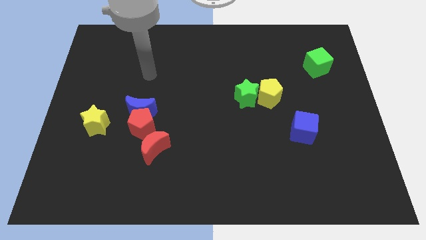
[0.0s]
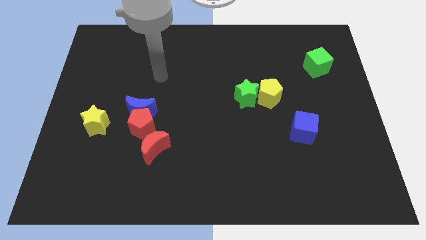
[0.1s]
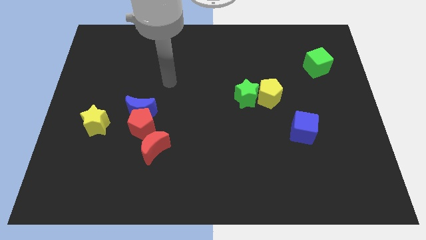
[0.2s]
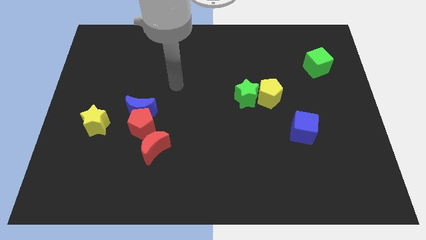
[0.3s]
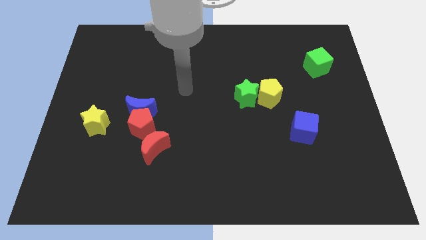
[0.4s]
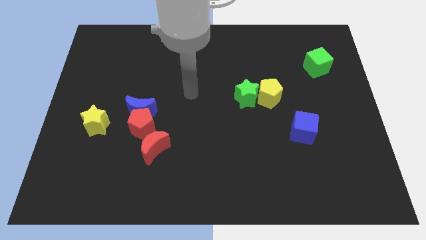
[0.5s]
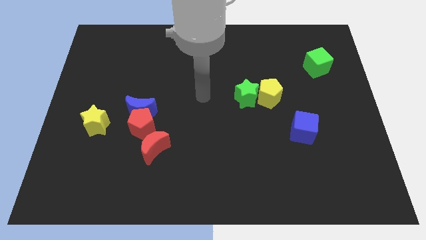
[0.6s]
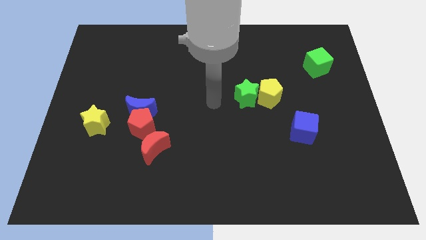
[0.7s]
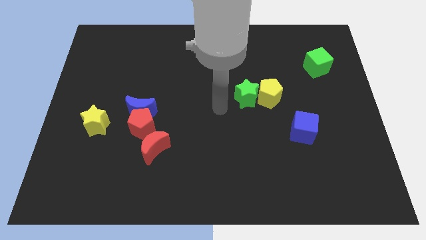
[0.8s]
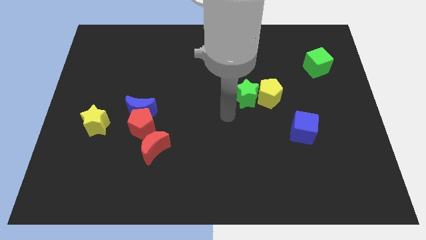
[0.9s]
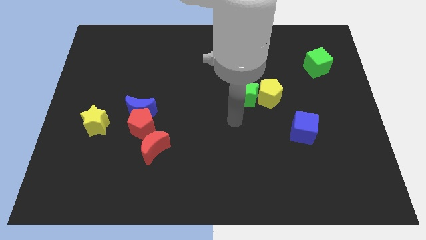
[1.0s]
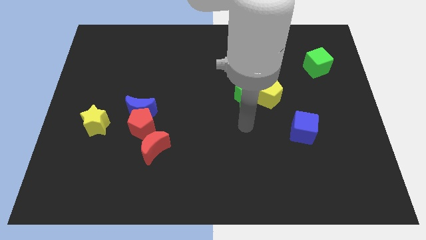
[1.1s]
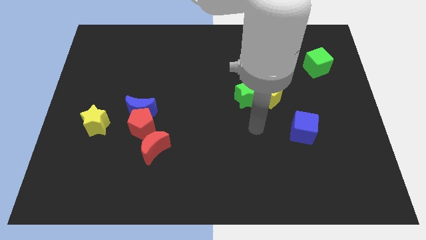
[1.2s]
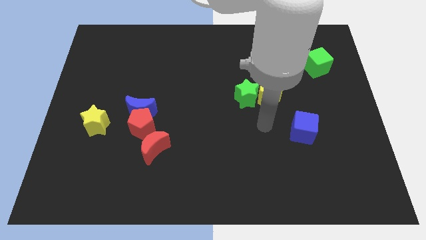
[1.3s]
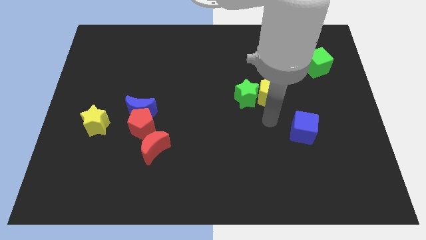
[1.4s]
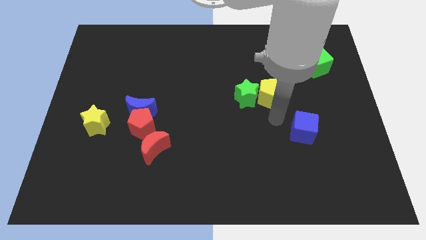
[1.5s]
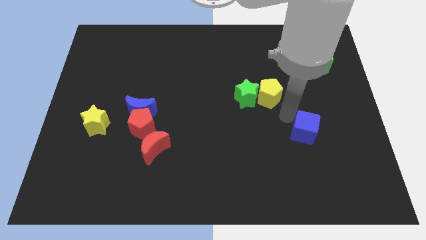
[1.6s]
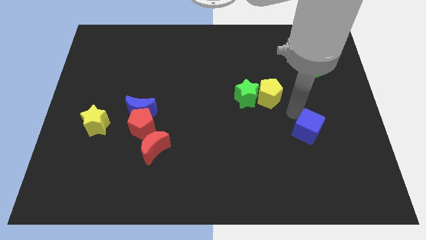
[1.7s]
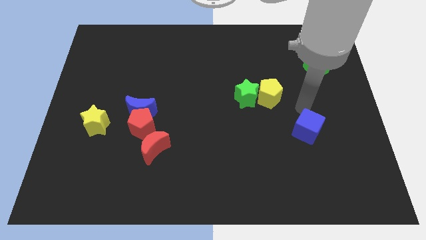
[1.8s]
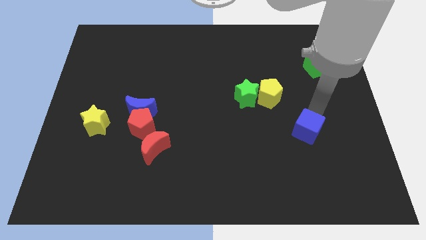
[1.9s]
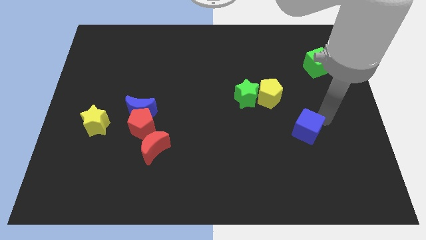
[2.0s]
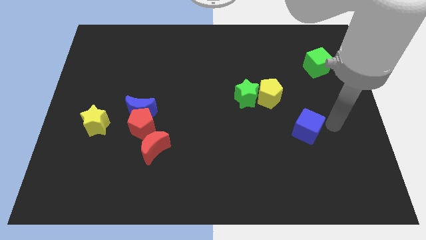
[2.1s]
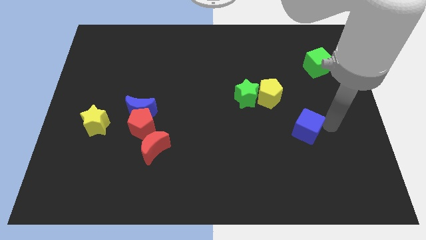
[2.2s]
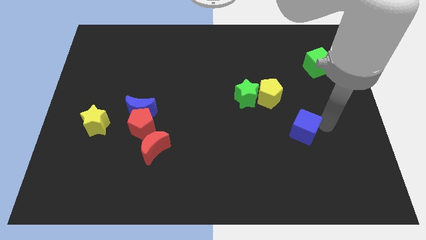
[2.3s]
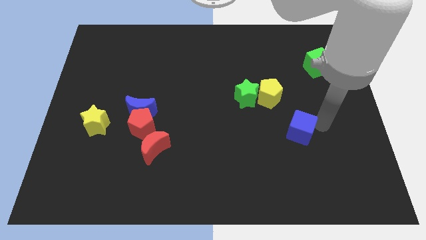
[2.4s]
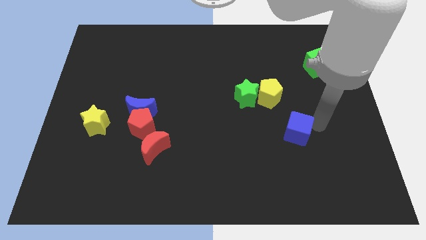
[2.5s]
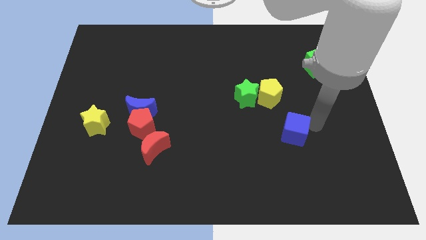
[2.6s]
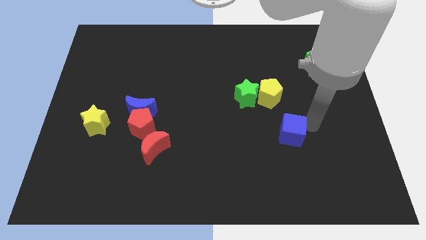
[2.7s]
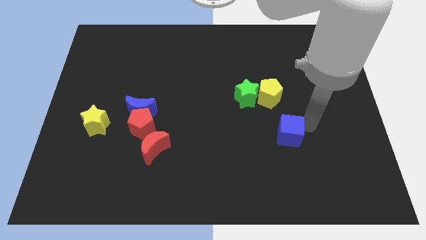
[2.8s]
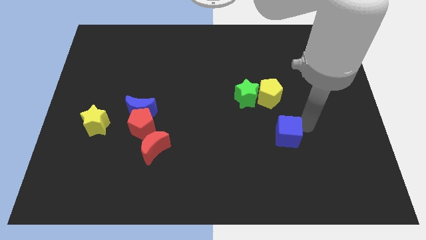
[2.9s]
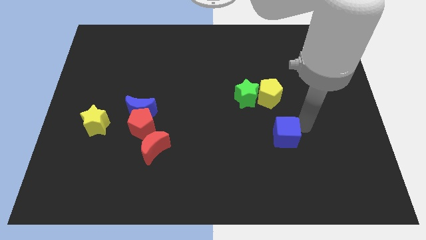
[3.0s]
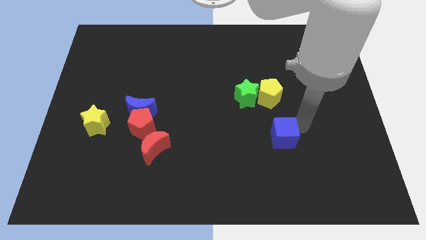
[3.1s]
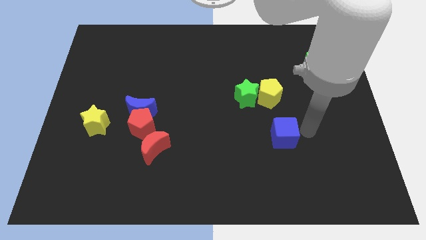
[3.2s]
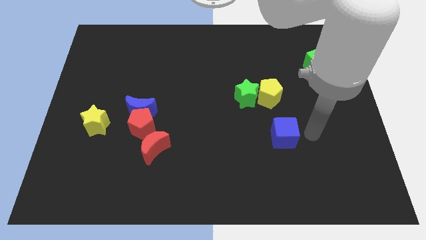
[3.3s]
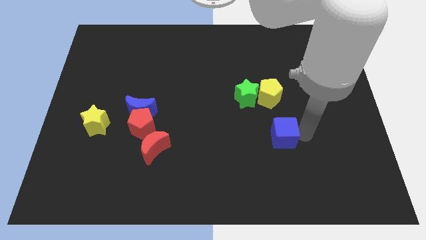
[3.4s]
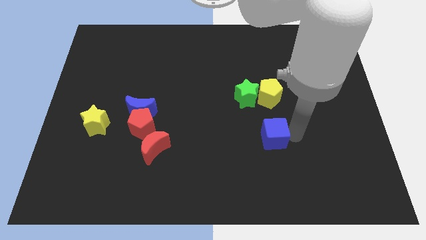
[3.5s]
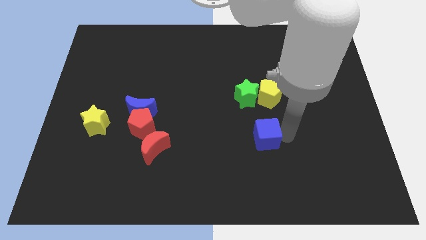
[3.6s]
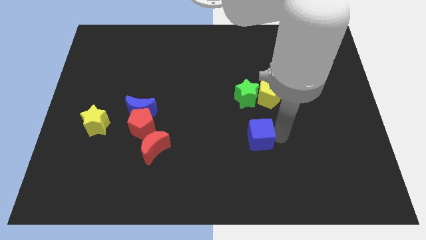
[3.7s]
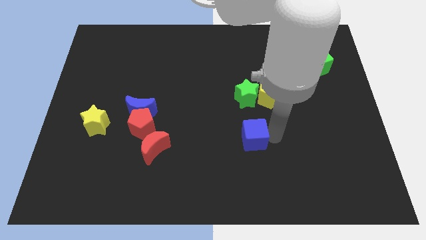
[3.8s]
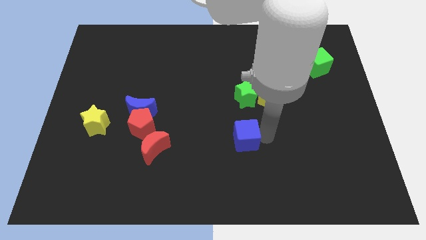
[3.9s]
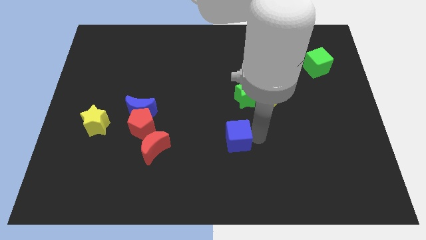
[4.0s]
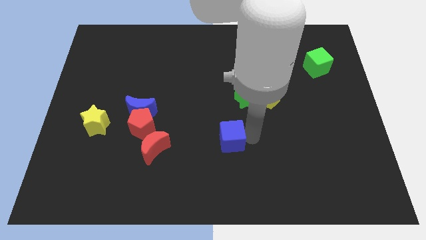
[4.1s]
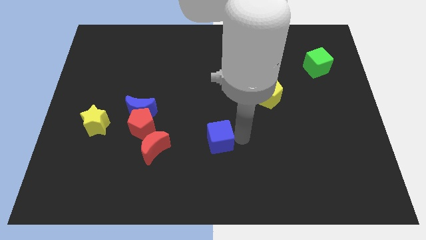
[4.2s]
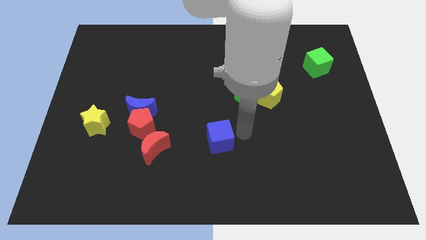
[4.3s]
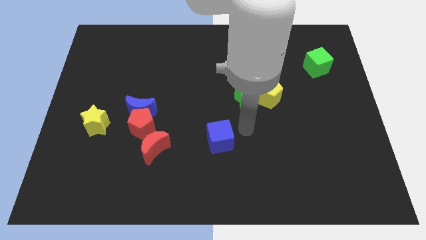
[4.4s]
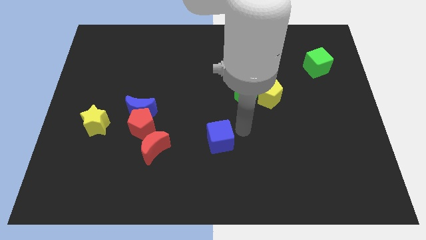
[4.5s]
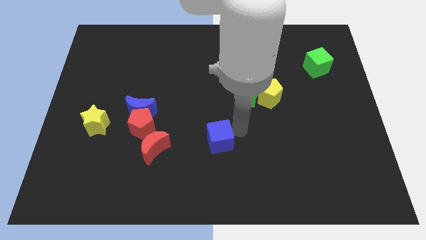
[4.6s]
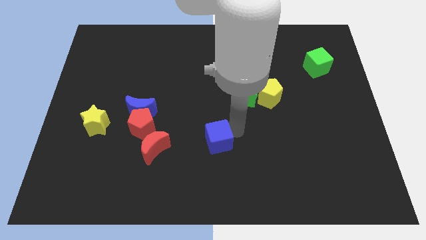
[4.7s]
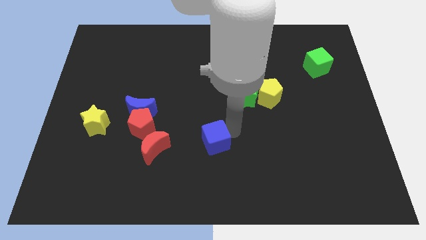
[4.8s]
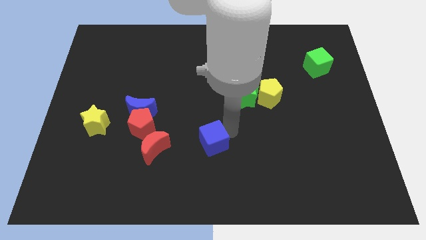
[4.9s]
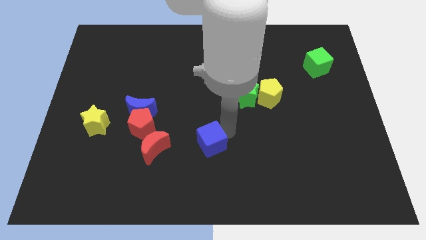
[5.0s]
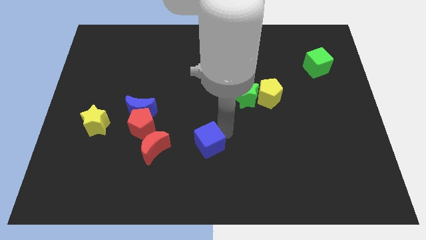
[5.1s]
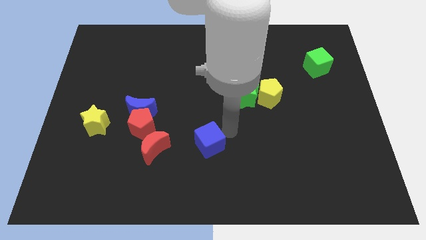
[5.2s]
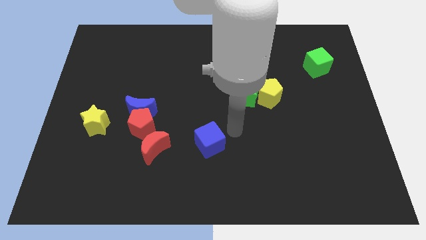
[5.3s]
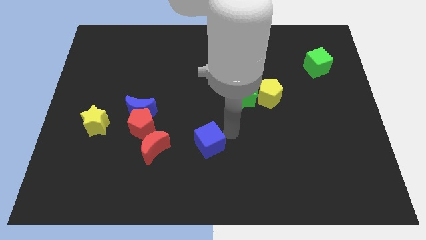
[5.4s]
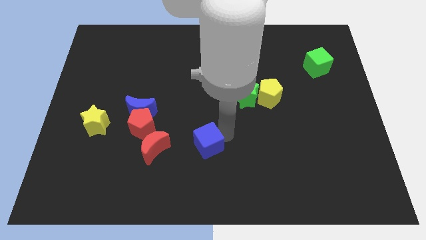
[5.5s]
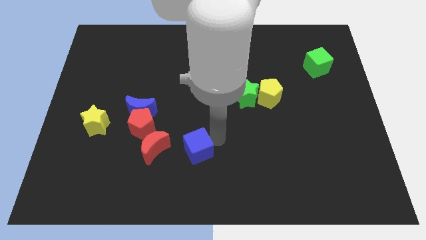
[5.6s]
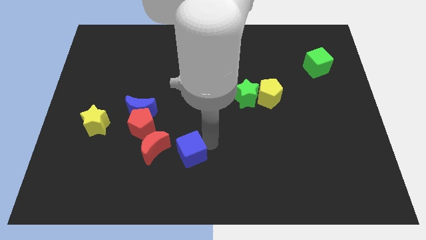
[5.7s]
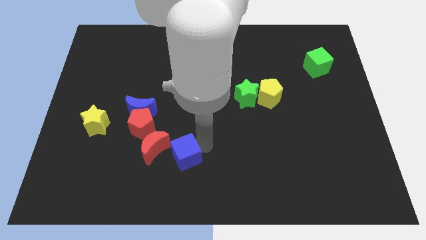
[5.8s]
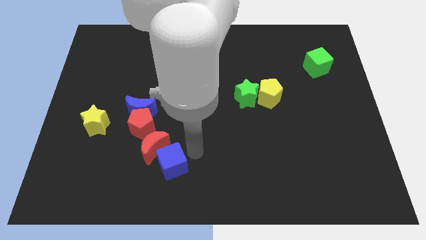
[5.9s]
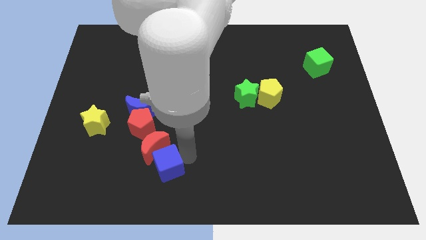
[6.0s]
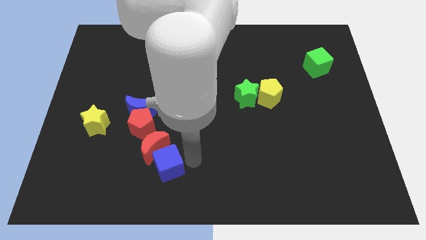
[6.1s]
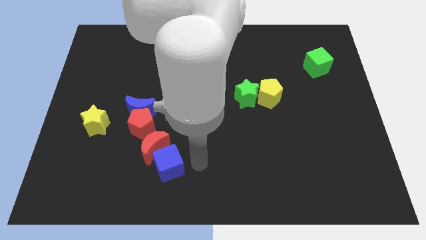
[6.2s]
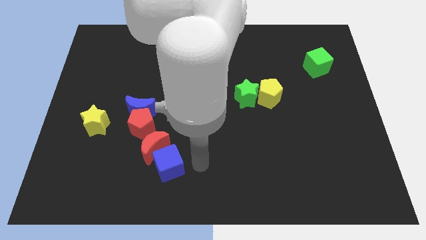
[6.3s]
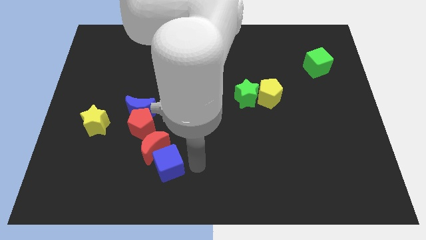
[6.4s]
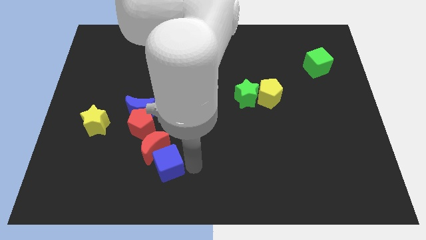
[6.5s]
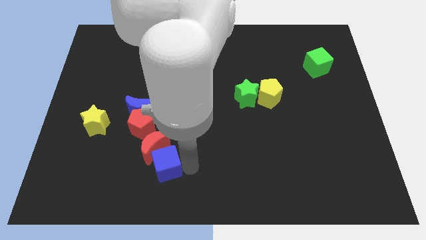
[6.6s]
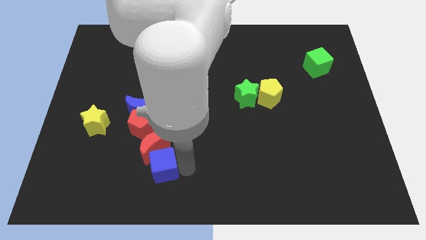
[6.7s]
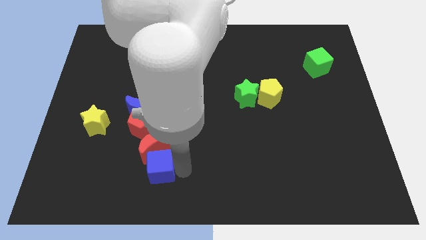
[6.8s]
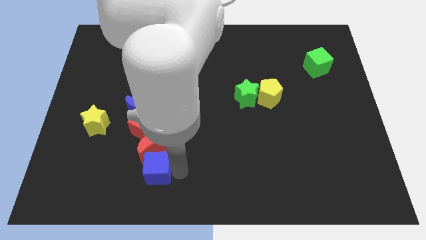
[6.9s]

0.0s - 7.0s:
push the blue cube to the bottom of the red pentagon

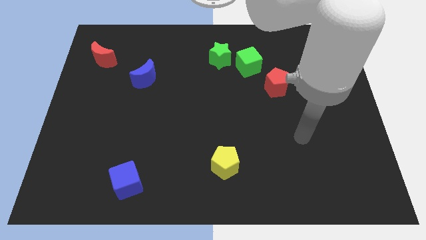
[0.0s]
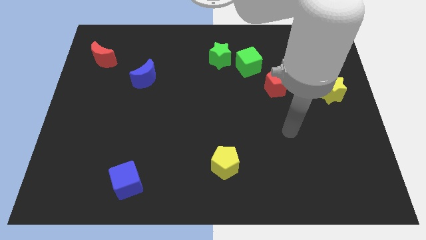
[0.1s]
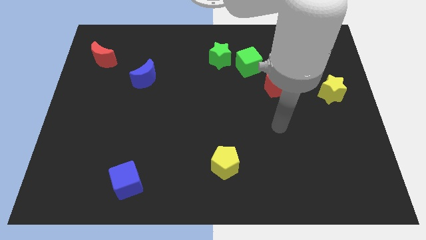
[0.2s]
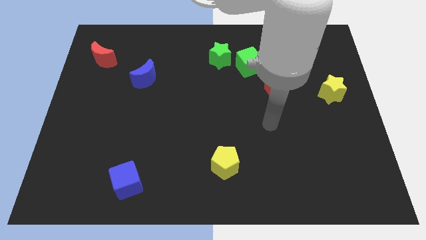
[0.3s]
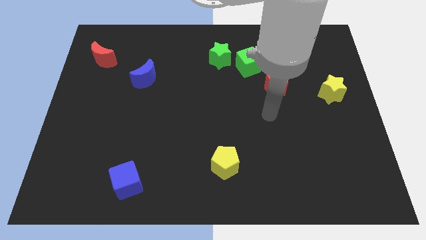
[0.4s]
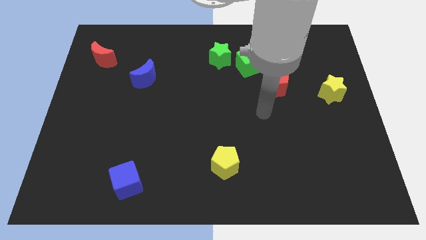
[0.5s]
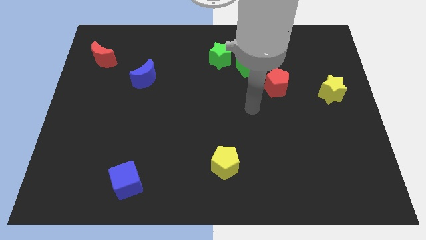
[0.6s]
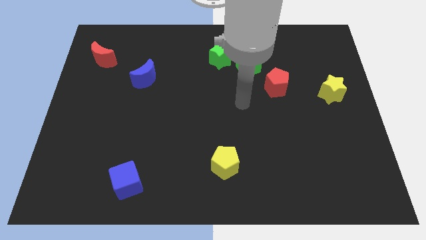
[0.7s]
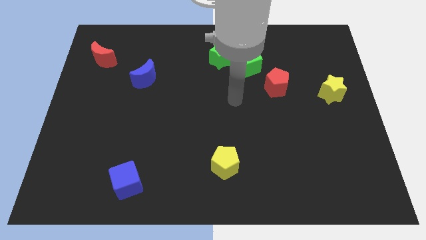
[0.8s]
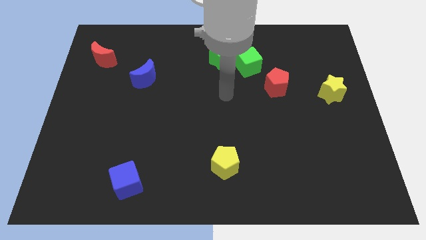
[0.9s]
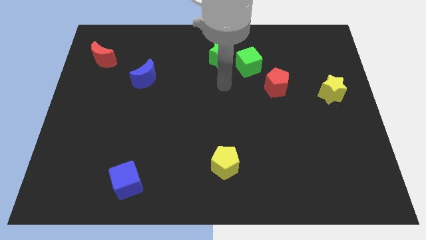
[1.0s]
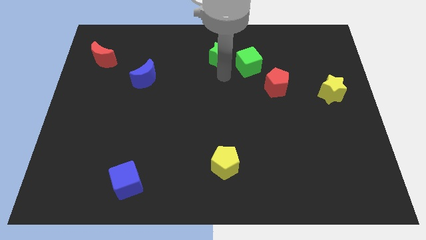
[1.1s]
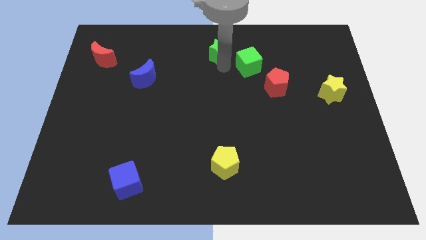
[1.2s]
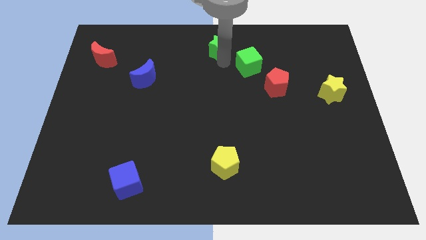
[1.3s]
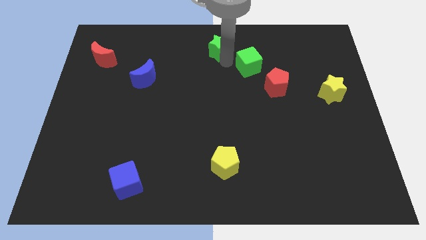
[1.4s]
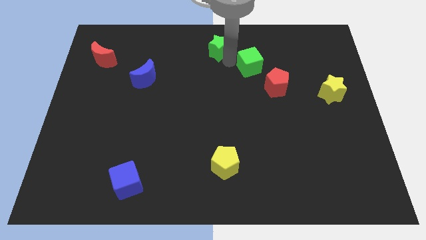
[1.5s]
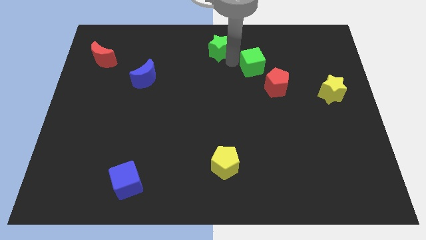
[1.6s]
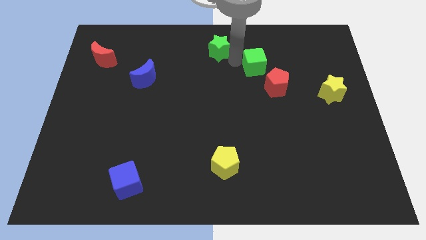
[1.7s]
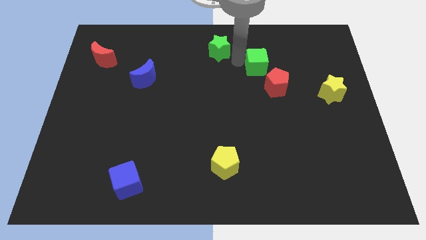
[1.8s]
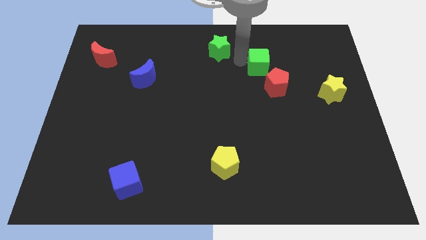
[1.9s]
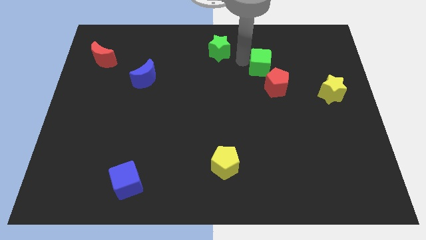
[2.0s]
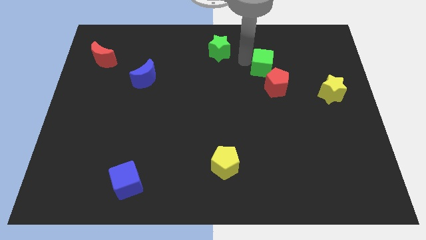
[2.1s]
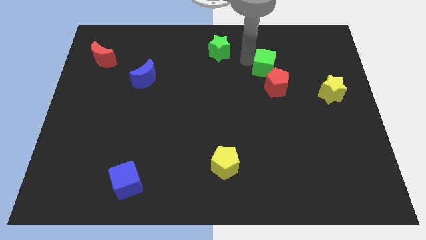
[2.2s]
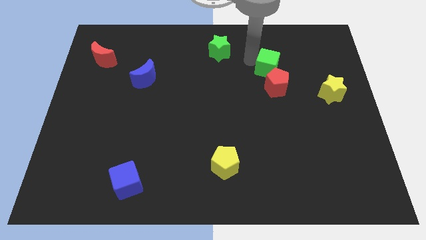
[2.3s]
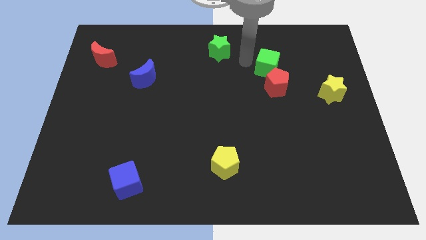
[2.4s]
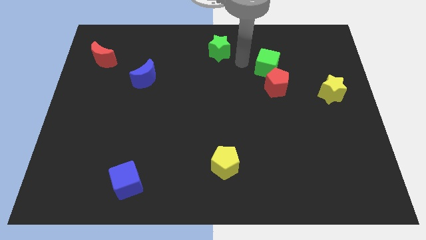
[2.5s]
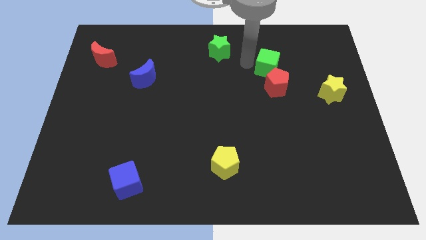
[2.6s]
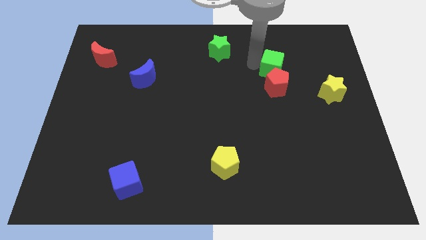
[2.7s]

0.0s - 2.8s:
slide the green cube to the top right of the red pentagon
